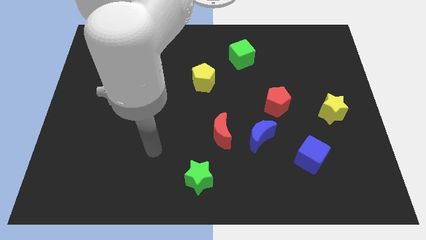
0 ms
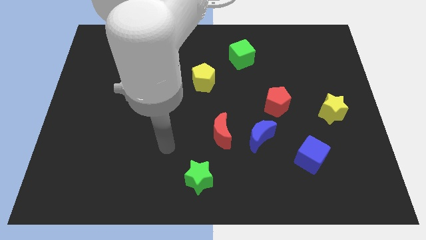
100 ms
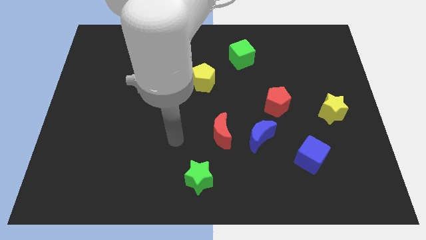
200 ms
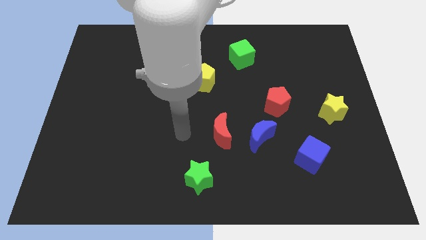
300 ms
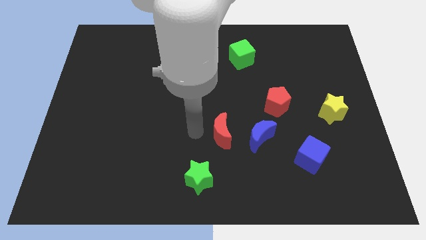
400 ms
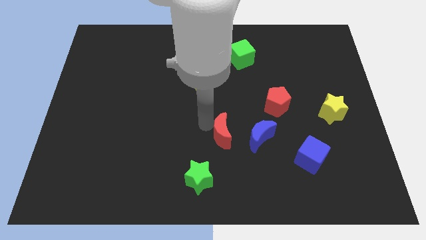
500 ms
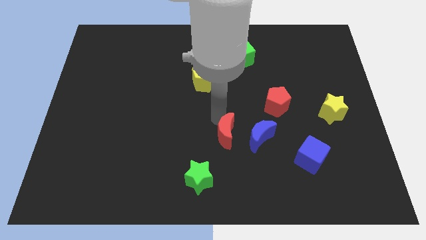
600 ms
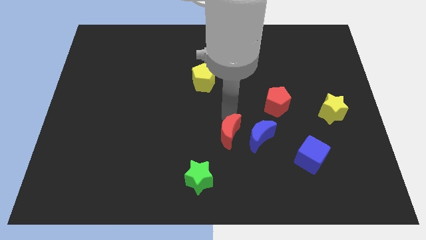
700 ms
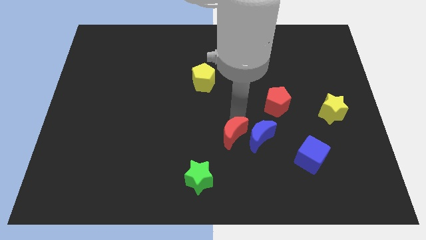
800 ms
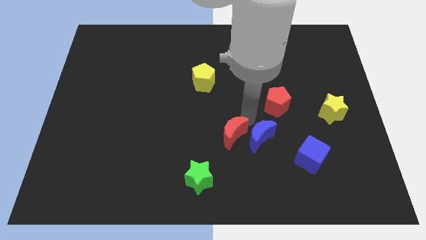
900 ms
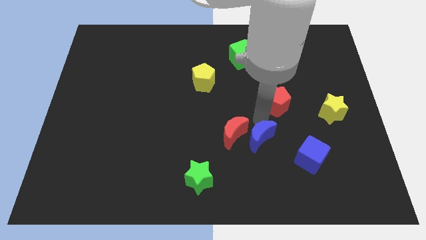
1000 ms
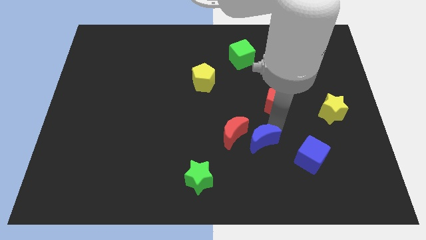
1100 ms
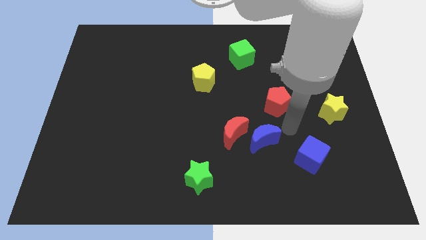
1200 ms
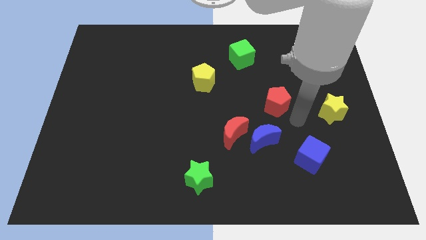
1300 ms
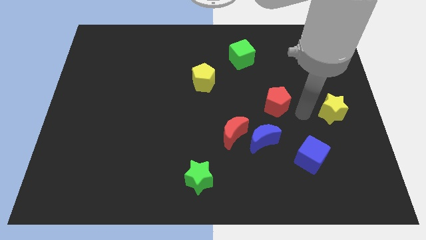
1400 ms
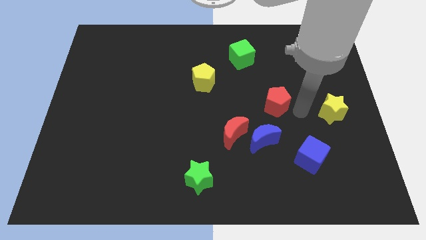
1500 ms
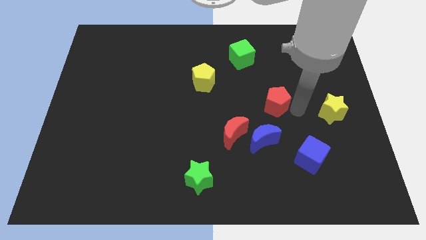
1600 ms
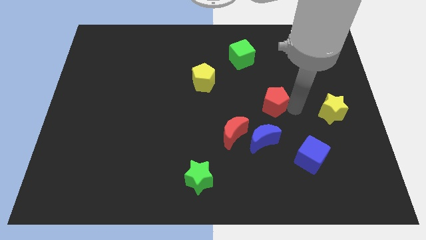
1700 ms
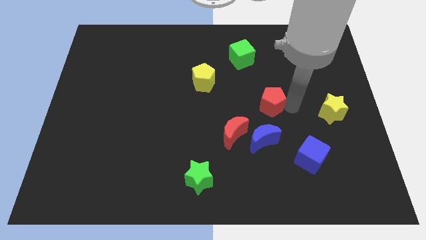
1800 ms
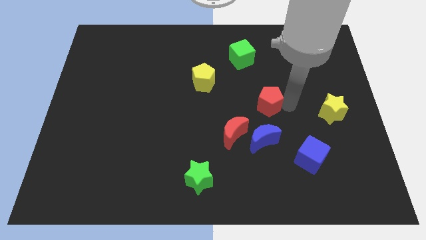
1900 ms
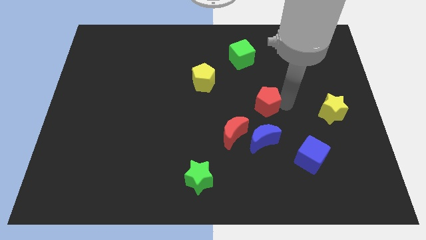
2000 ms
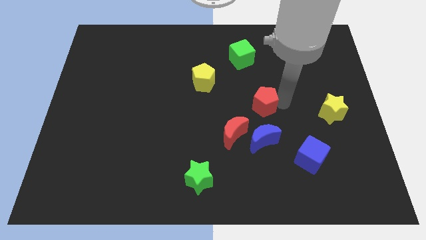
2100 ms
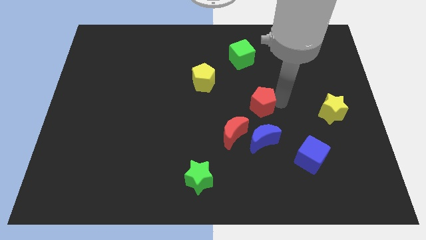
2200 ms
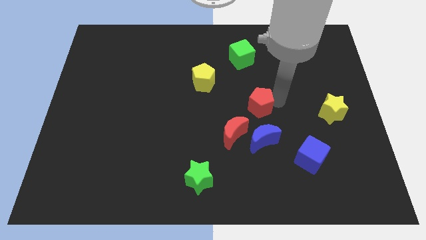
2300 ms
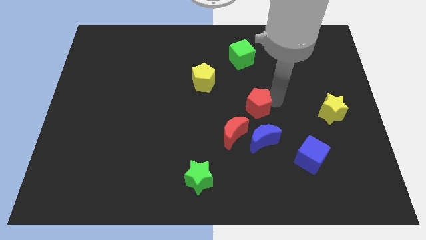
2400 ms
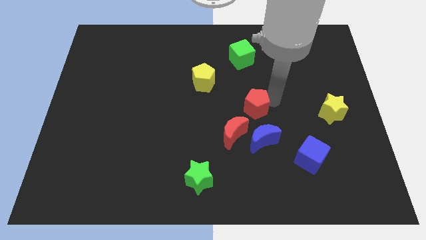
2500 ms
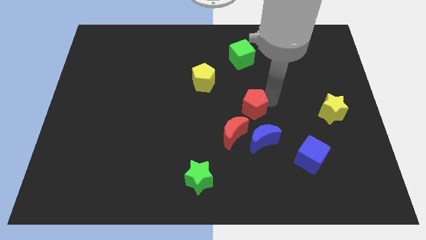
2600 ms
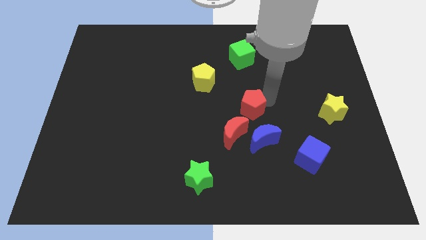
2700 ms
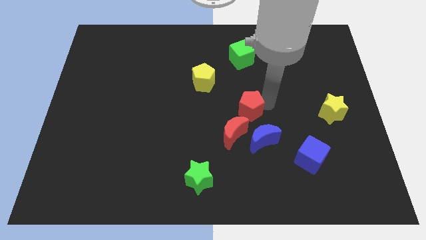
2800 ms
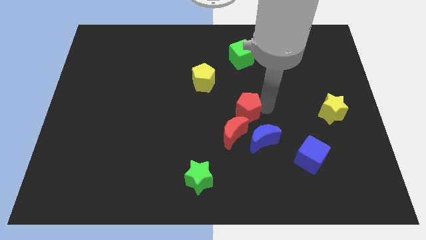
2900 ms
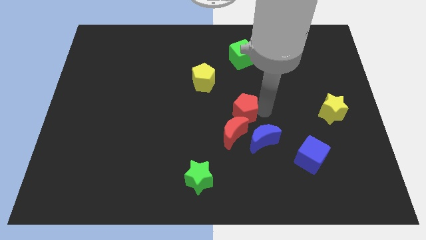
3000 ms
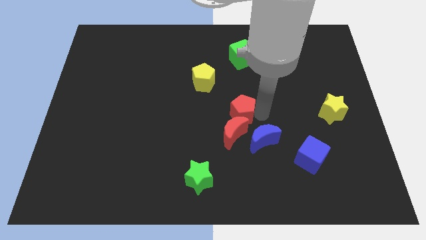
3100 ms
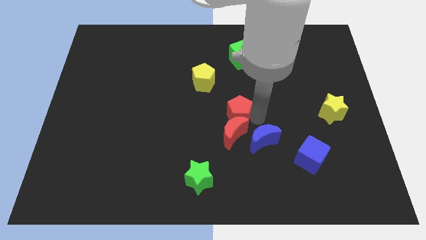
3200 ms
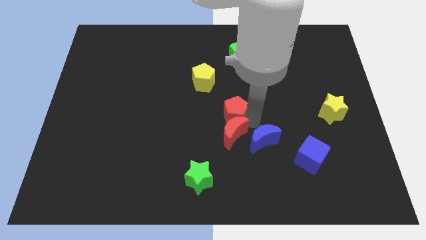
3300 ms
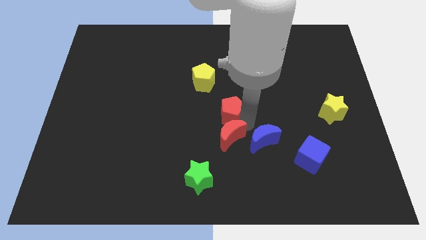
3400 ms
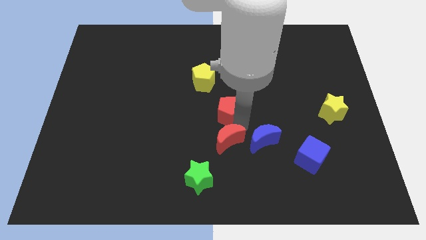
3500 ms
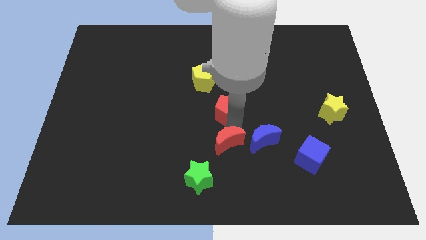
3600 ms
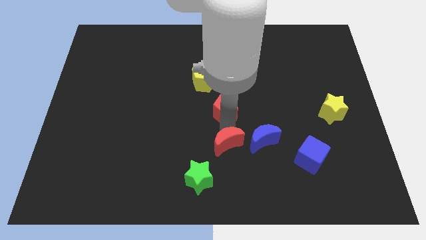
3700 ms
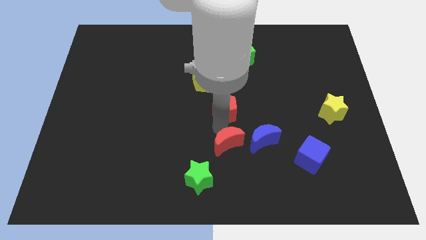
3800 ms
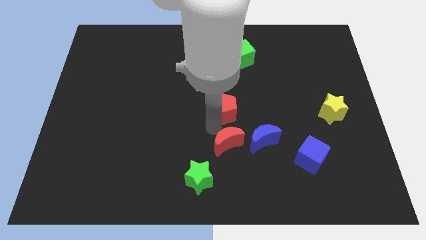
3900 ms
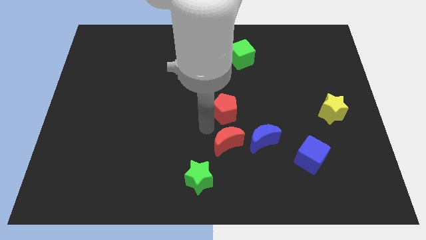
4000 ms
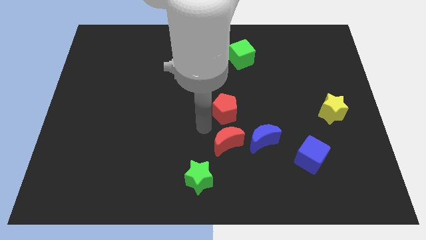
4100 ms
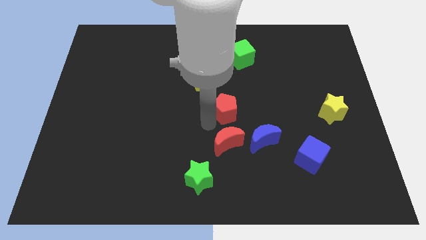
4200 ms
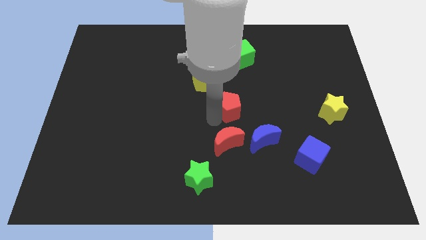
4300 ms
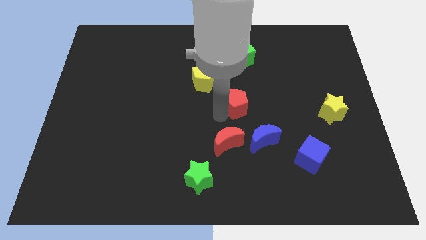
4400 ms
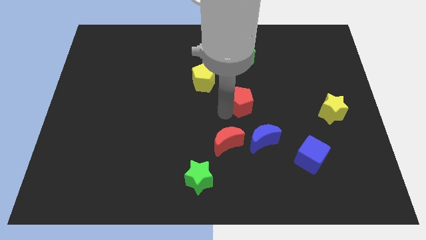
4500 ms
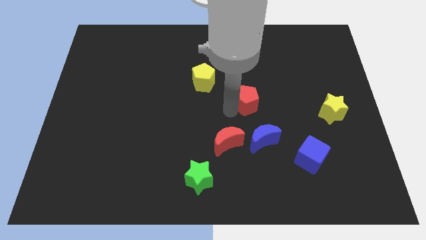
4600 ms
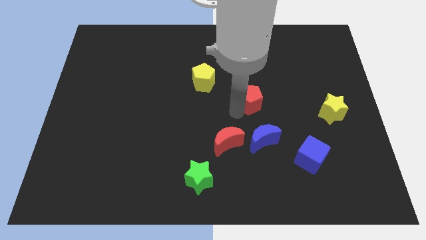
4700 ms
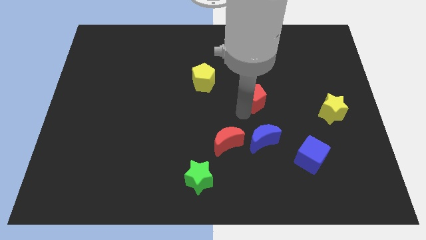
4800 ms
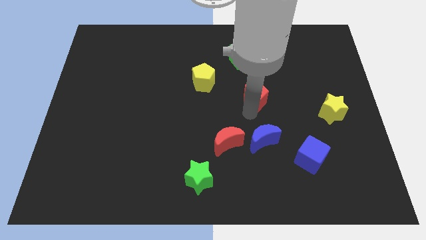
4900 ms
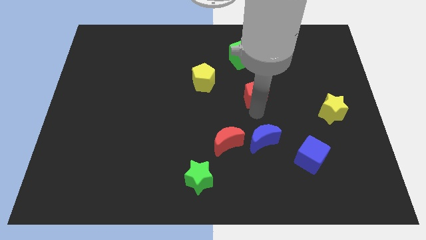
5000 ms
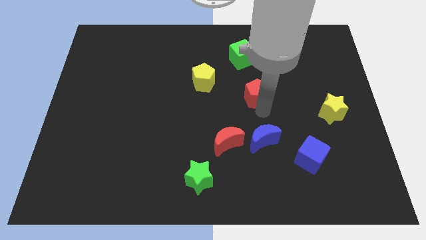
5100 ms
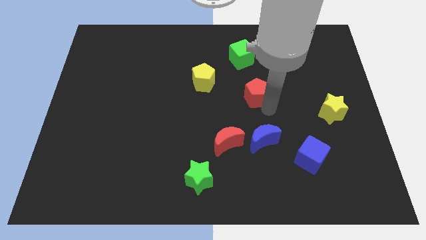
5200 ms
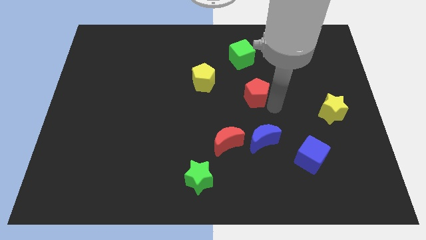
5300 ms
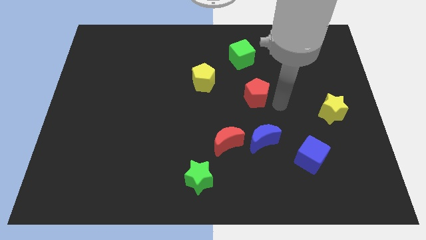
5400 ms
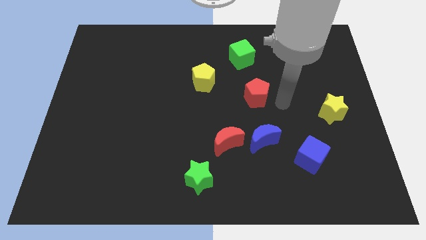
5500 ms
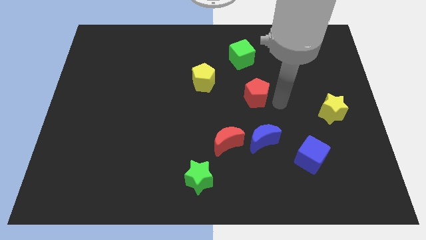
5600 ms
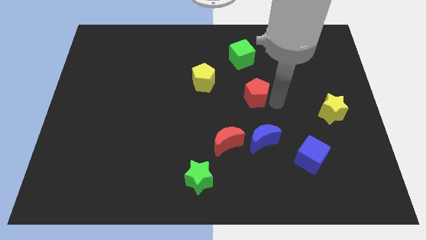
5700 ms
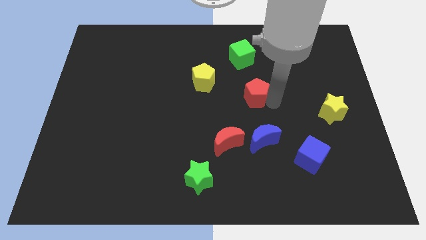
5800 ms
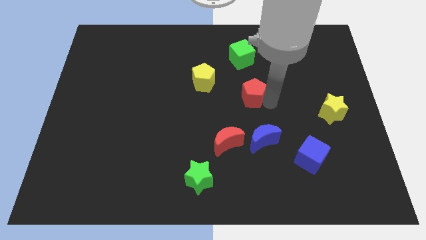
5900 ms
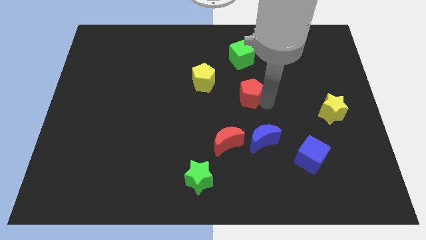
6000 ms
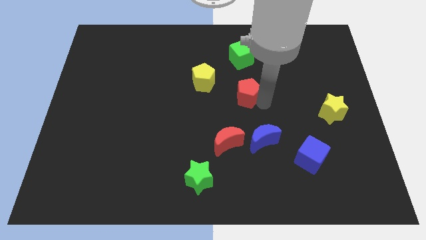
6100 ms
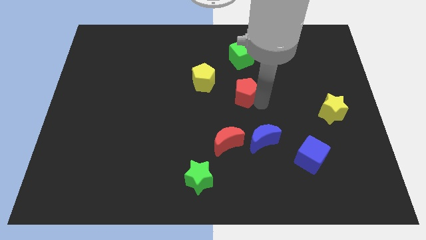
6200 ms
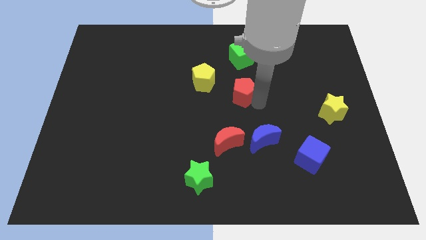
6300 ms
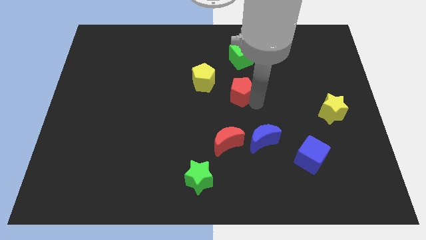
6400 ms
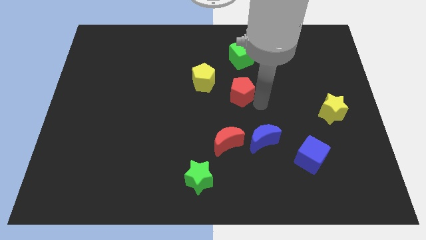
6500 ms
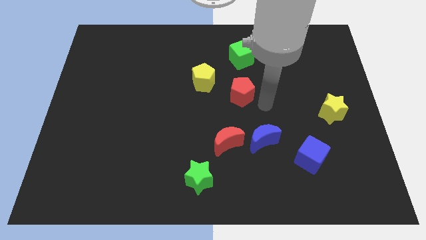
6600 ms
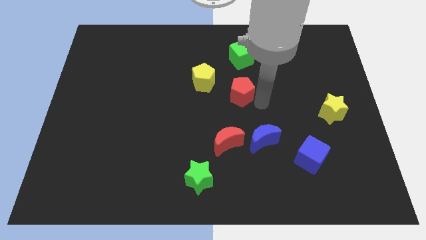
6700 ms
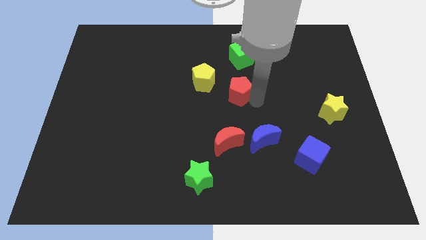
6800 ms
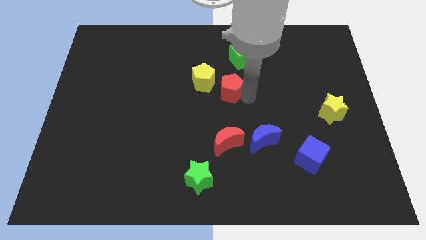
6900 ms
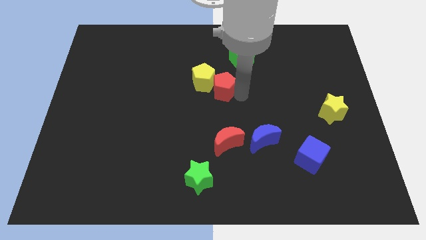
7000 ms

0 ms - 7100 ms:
put the red pentagon close to the yellow pentagon
